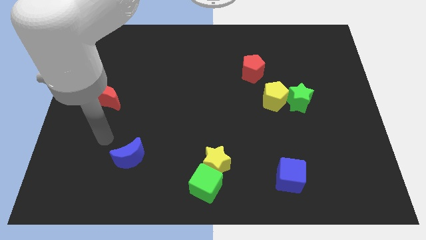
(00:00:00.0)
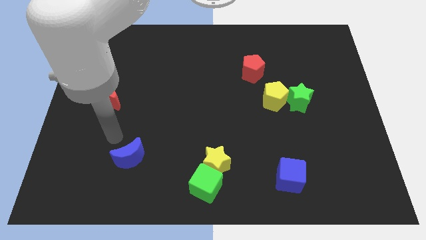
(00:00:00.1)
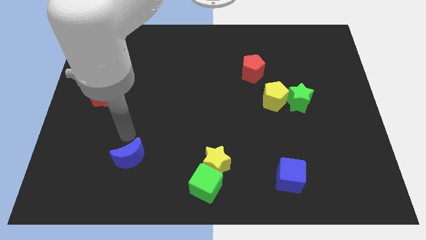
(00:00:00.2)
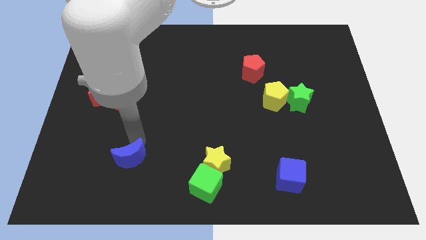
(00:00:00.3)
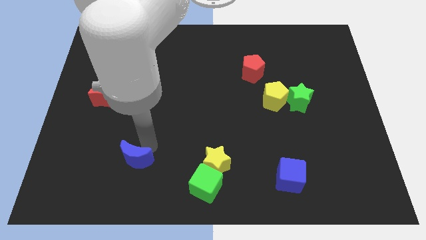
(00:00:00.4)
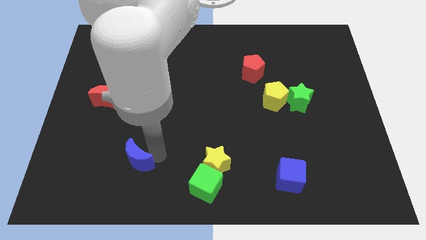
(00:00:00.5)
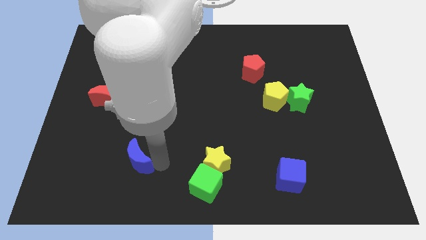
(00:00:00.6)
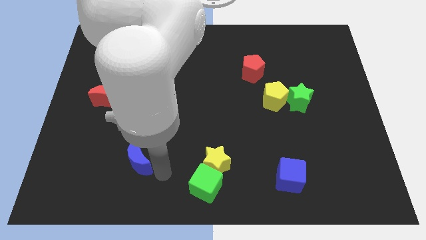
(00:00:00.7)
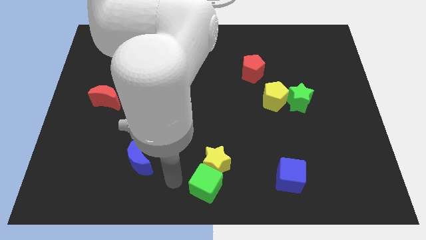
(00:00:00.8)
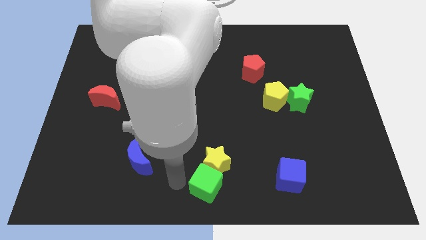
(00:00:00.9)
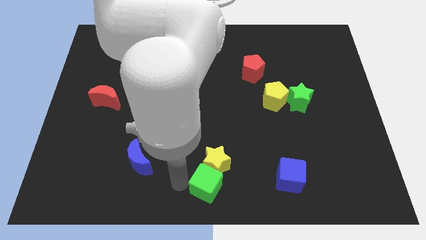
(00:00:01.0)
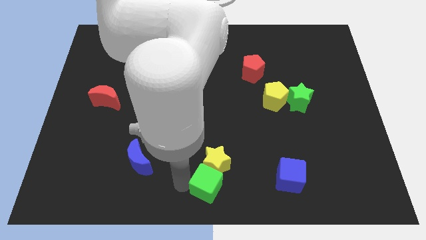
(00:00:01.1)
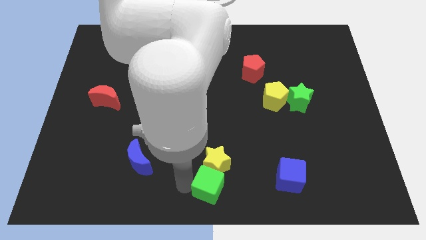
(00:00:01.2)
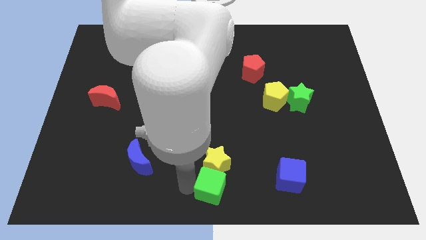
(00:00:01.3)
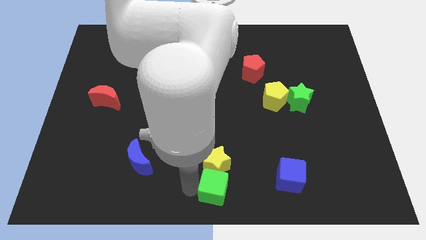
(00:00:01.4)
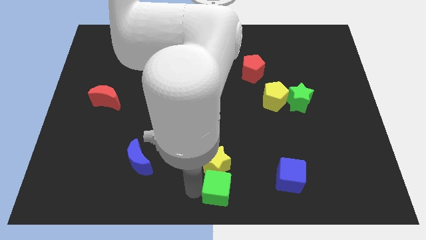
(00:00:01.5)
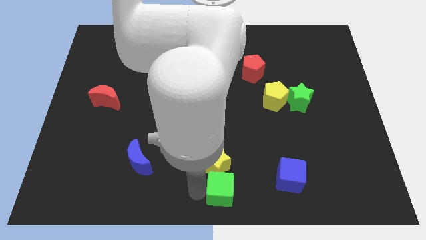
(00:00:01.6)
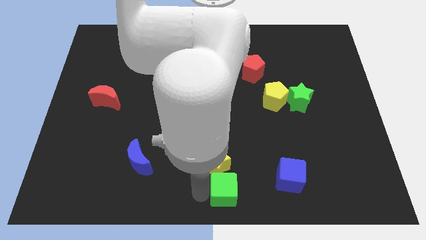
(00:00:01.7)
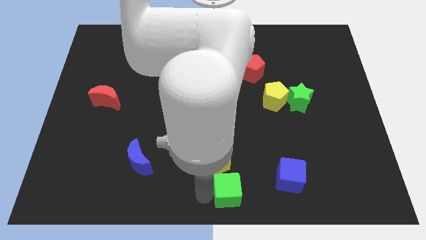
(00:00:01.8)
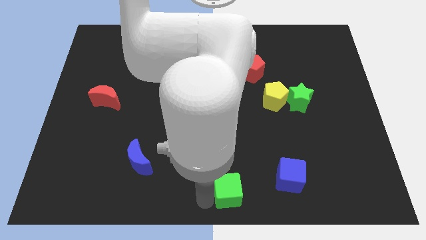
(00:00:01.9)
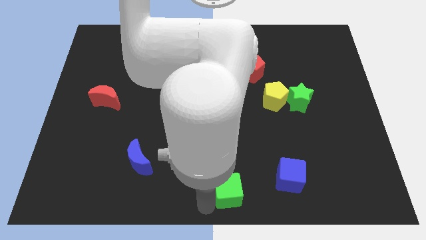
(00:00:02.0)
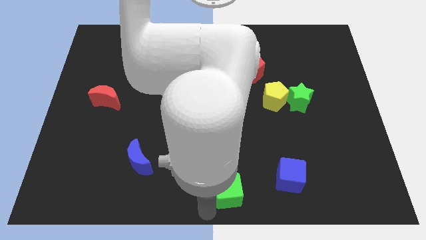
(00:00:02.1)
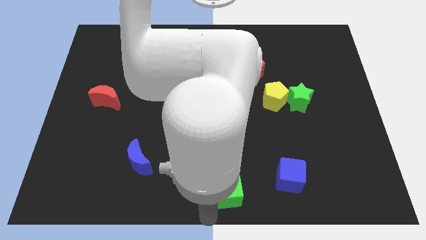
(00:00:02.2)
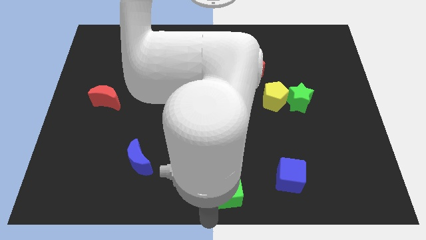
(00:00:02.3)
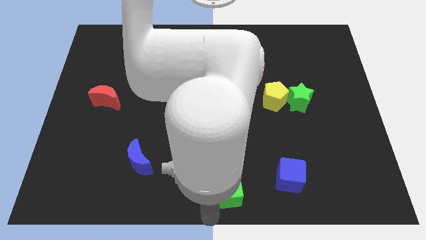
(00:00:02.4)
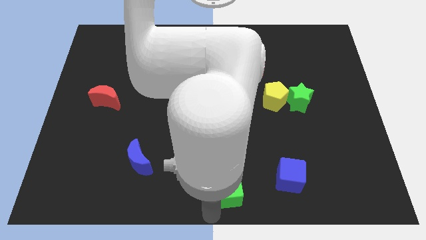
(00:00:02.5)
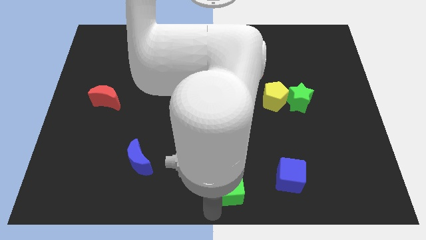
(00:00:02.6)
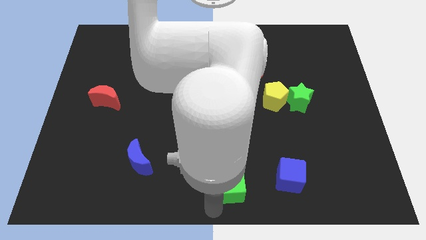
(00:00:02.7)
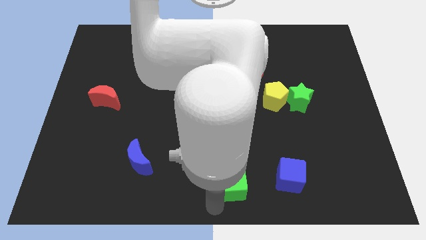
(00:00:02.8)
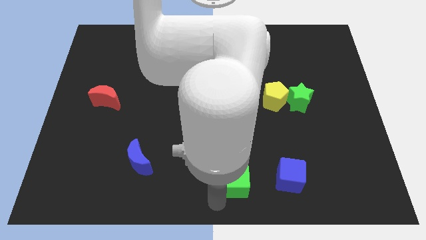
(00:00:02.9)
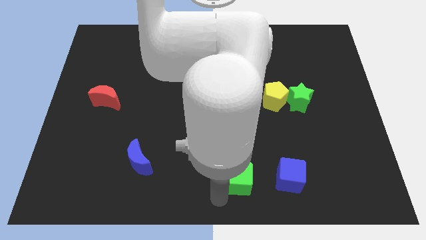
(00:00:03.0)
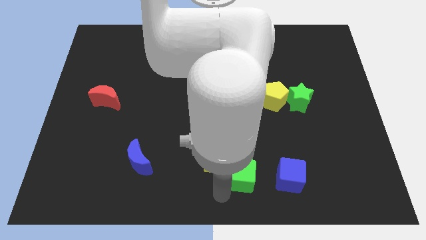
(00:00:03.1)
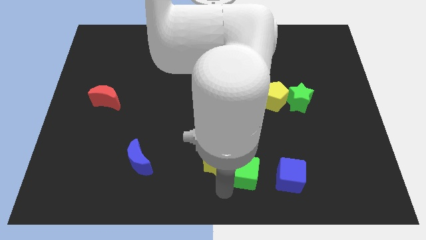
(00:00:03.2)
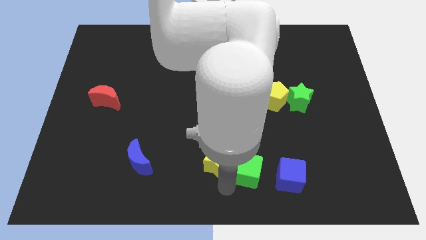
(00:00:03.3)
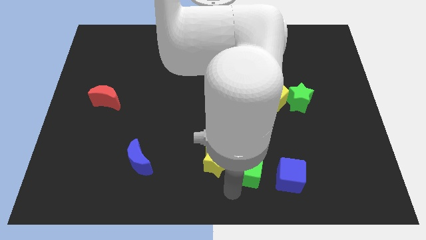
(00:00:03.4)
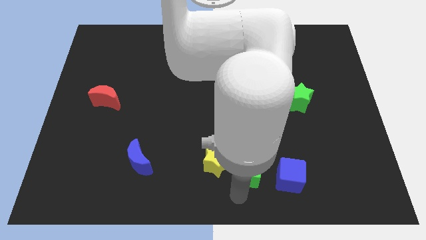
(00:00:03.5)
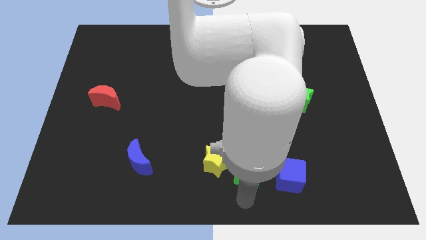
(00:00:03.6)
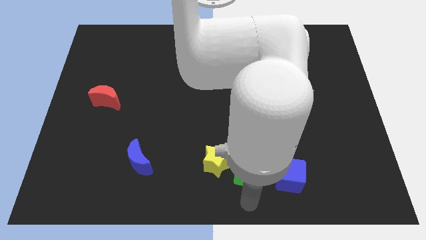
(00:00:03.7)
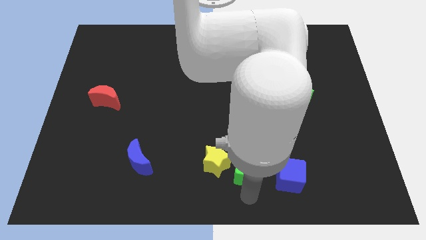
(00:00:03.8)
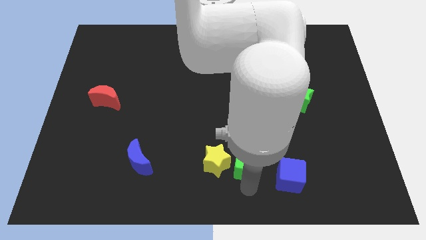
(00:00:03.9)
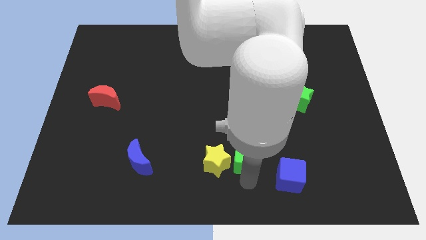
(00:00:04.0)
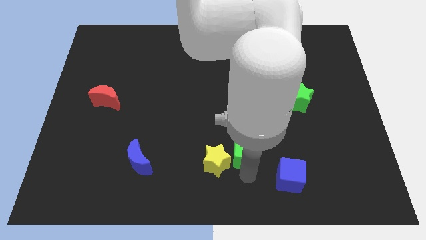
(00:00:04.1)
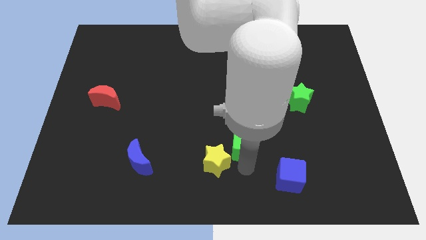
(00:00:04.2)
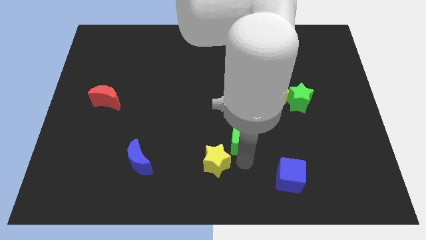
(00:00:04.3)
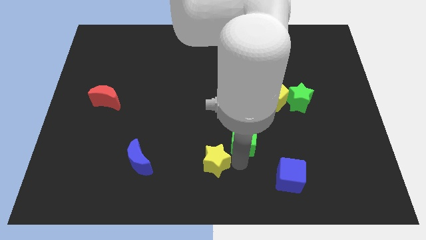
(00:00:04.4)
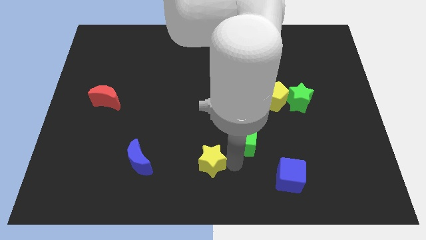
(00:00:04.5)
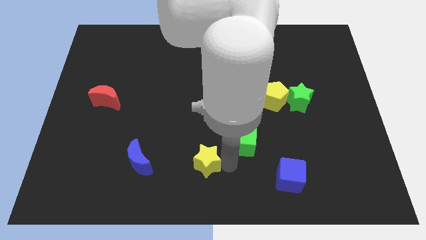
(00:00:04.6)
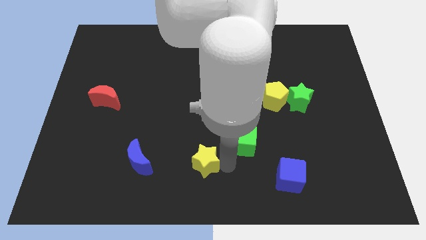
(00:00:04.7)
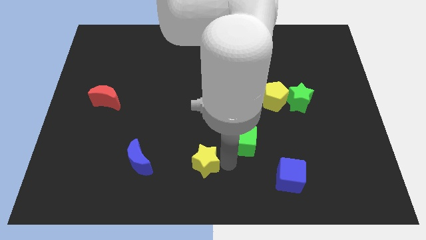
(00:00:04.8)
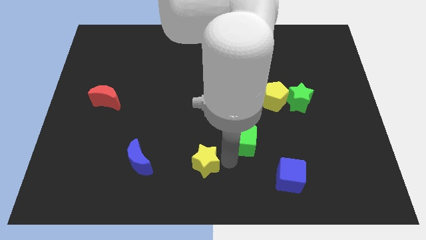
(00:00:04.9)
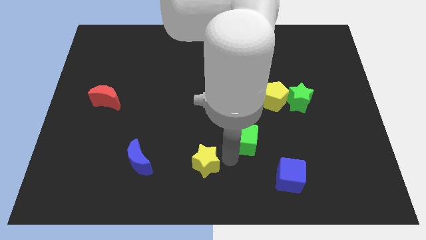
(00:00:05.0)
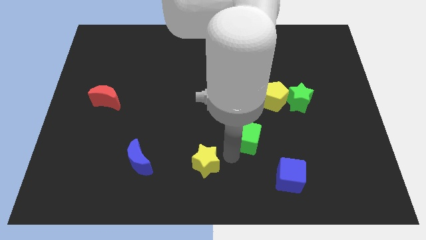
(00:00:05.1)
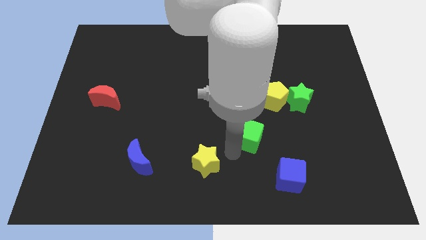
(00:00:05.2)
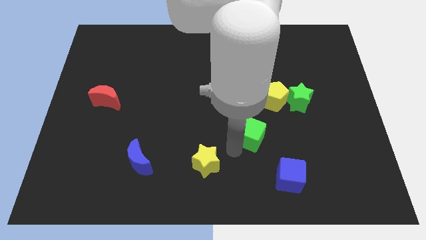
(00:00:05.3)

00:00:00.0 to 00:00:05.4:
put the green cube to the bottom left of the yellow pentagon

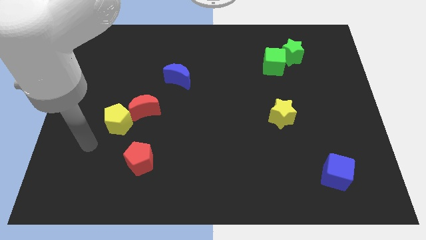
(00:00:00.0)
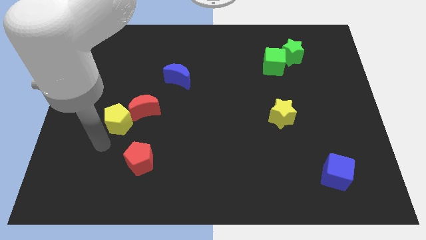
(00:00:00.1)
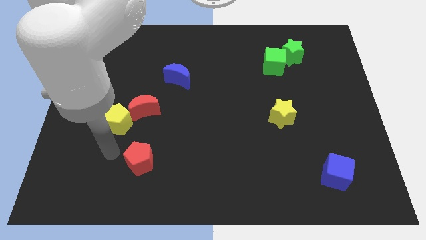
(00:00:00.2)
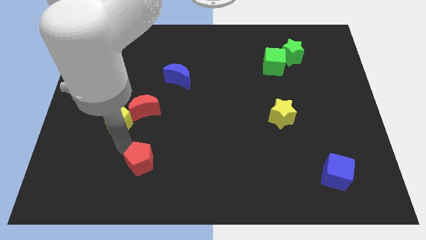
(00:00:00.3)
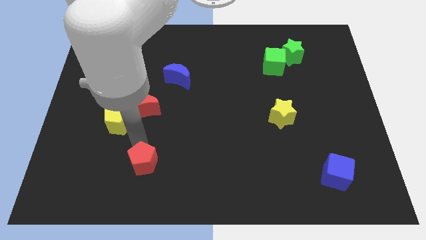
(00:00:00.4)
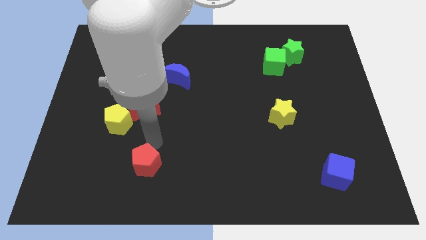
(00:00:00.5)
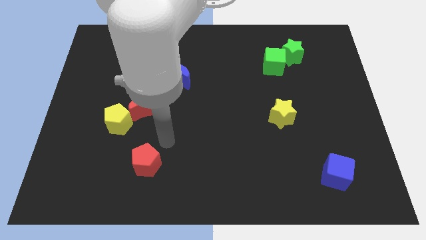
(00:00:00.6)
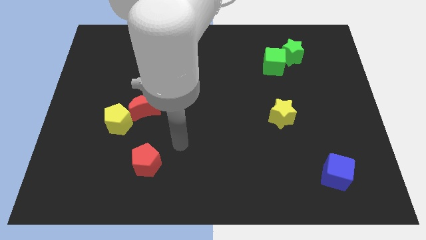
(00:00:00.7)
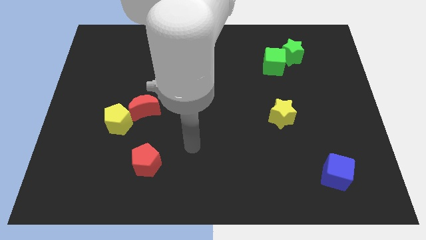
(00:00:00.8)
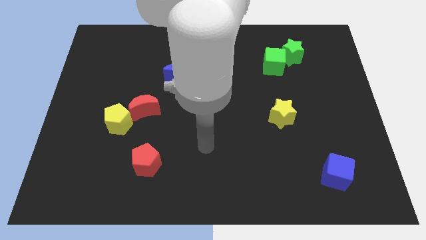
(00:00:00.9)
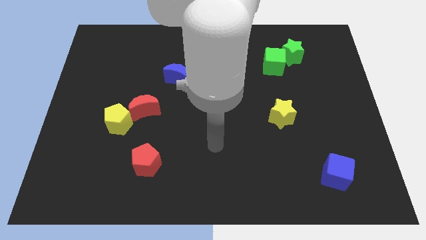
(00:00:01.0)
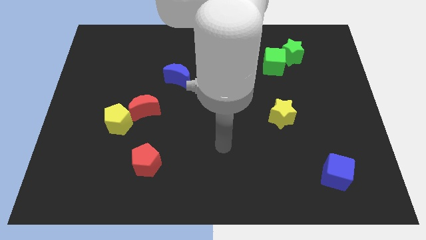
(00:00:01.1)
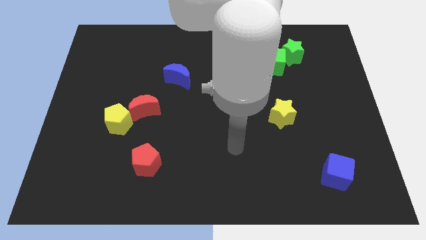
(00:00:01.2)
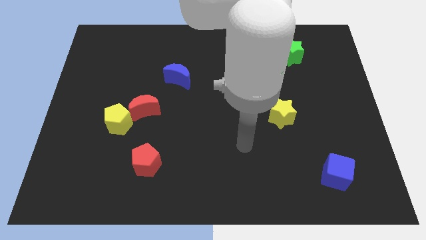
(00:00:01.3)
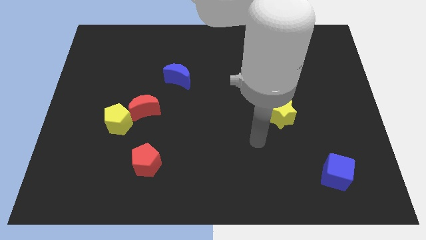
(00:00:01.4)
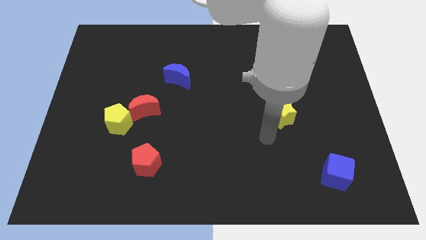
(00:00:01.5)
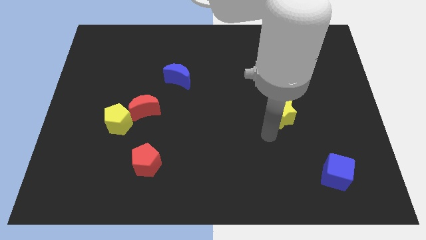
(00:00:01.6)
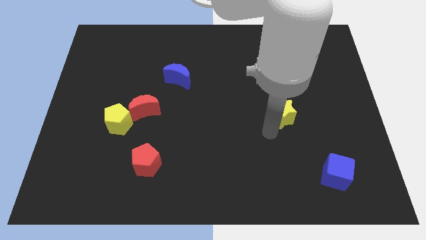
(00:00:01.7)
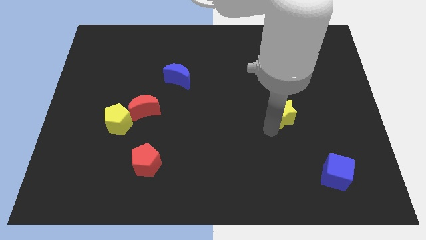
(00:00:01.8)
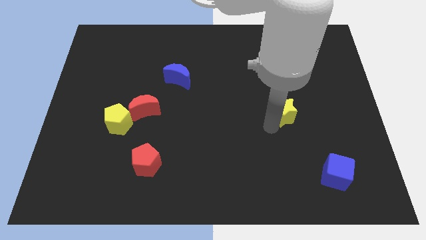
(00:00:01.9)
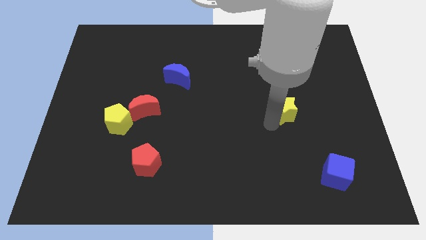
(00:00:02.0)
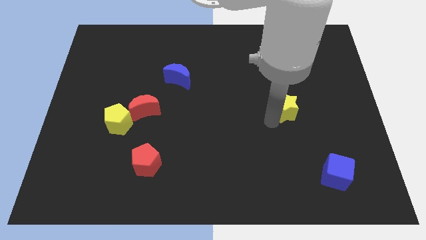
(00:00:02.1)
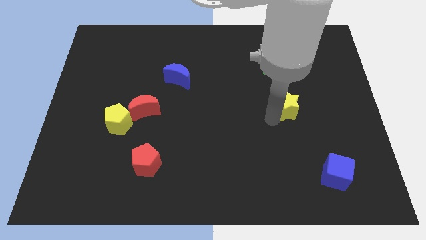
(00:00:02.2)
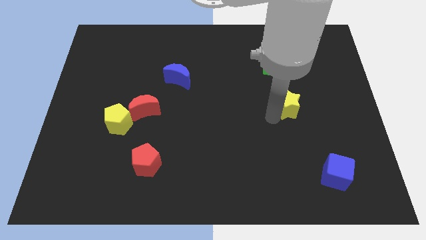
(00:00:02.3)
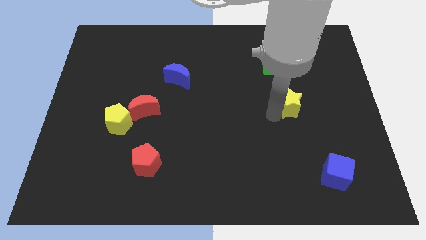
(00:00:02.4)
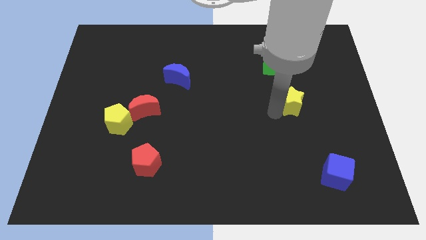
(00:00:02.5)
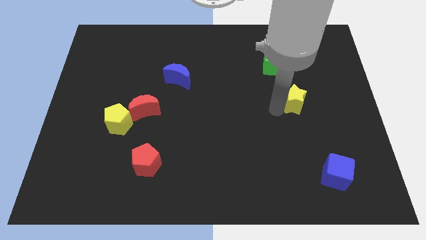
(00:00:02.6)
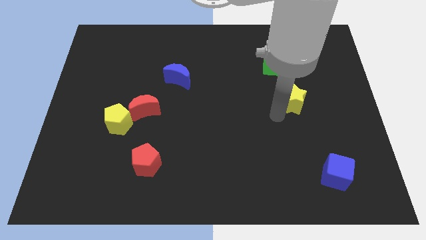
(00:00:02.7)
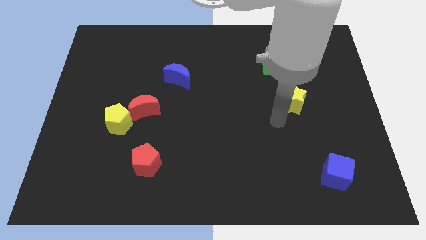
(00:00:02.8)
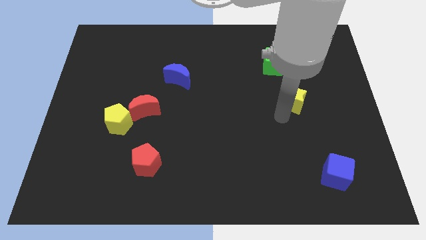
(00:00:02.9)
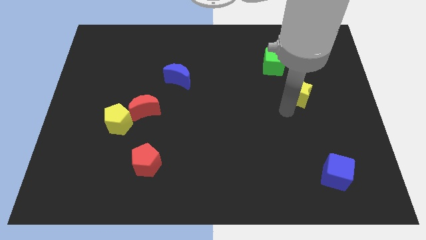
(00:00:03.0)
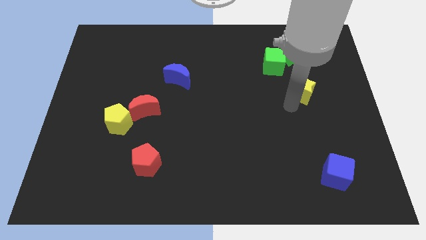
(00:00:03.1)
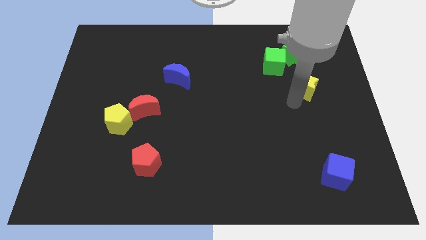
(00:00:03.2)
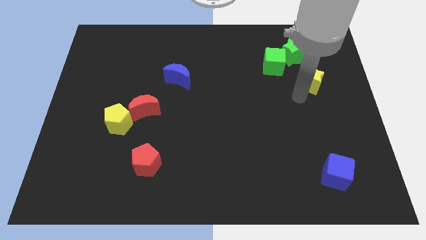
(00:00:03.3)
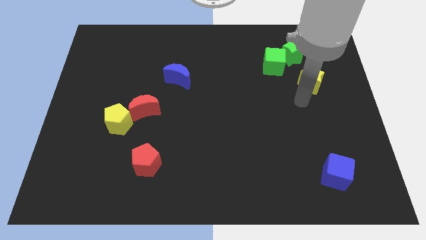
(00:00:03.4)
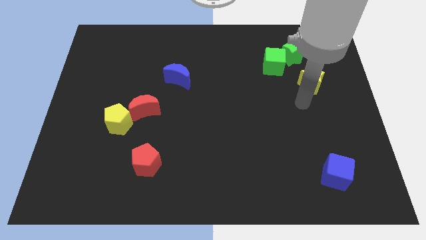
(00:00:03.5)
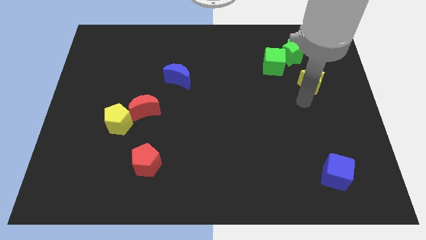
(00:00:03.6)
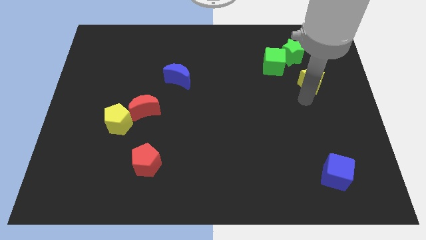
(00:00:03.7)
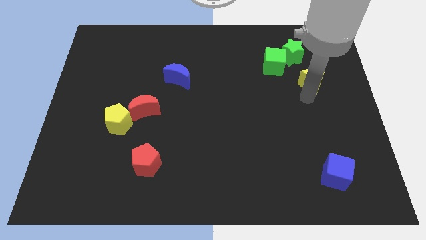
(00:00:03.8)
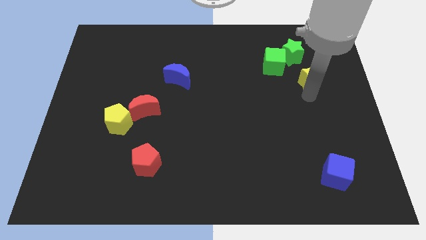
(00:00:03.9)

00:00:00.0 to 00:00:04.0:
move the yellow star diagonally down and to the right of the green star
